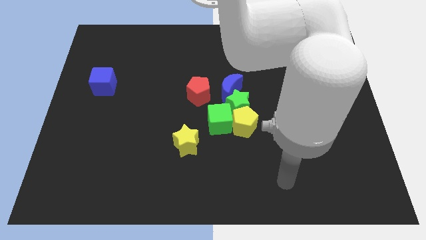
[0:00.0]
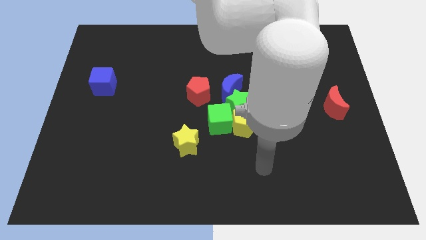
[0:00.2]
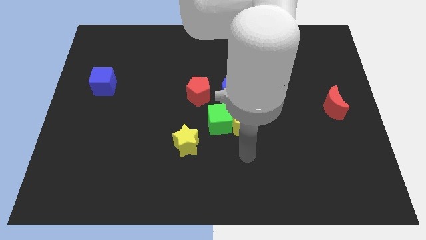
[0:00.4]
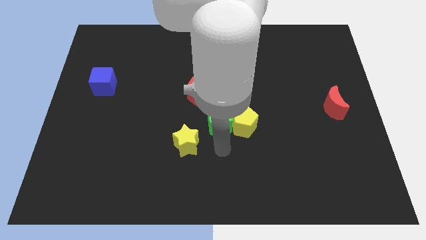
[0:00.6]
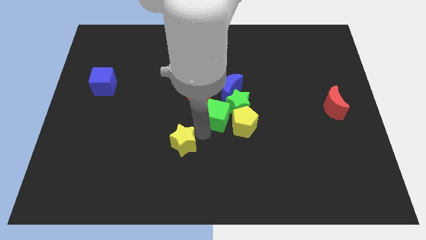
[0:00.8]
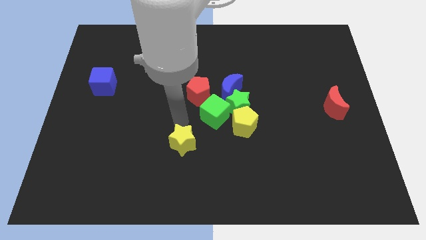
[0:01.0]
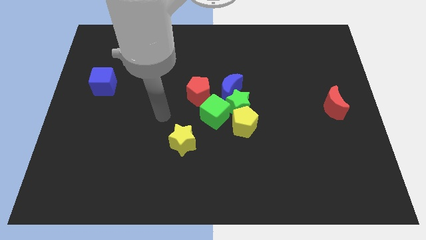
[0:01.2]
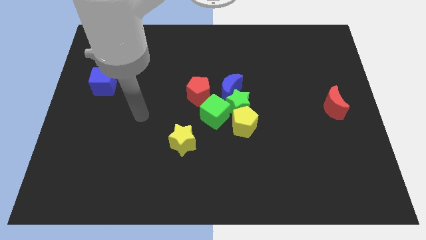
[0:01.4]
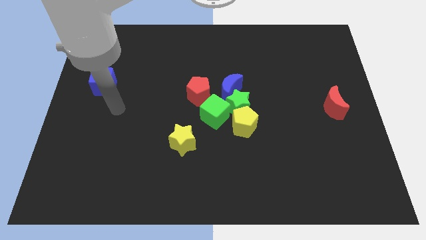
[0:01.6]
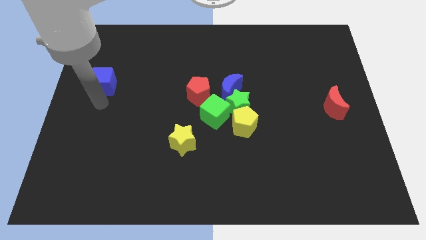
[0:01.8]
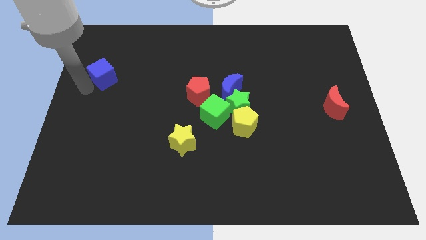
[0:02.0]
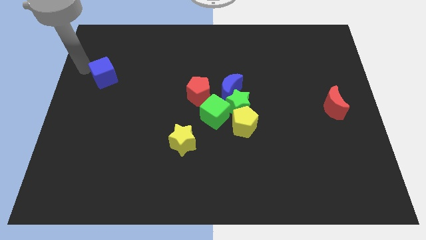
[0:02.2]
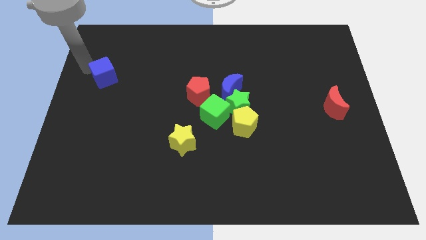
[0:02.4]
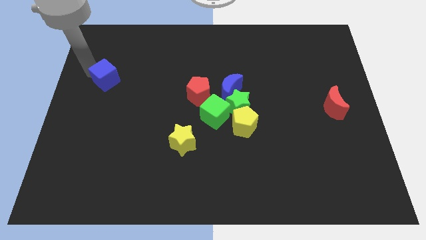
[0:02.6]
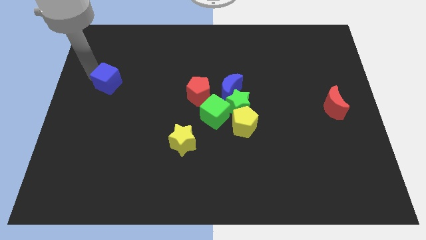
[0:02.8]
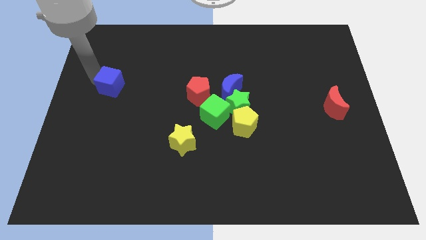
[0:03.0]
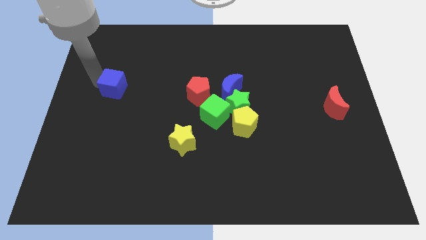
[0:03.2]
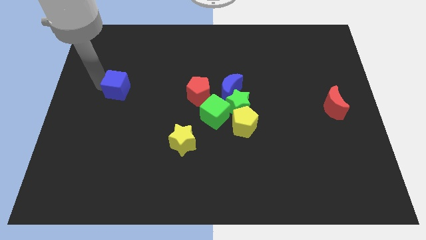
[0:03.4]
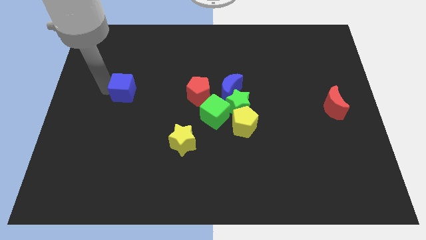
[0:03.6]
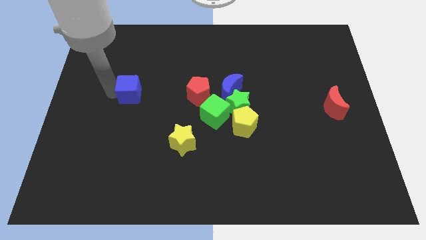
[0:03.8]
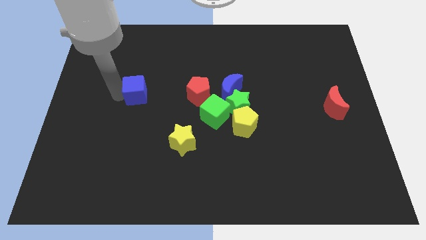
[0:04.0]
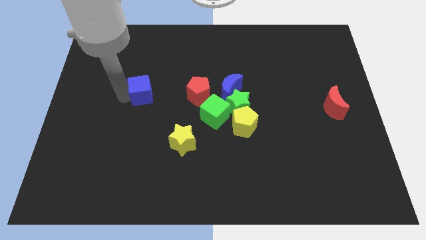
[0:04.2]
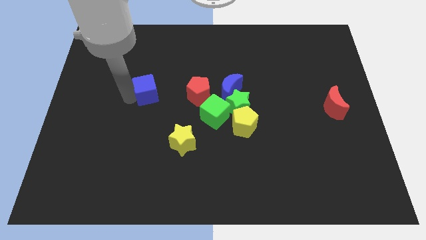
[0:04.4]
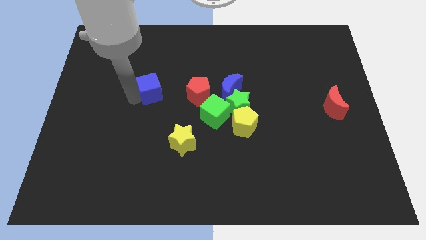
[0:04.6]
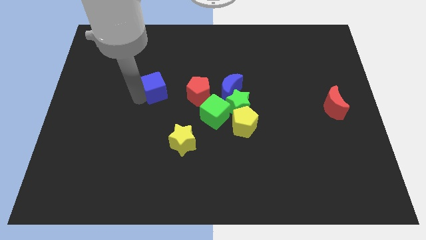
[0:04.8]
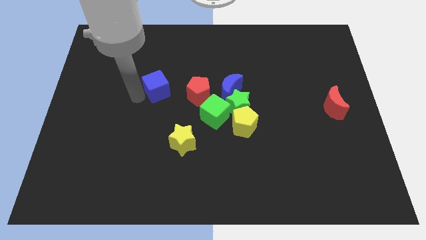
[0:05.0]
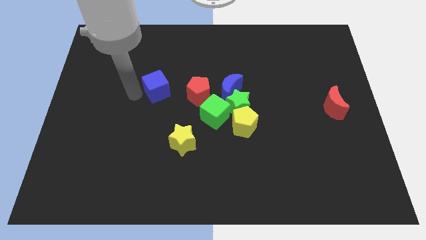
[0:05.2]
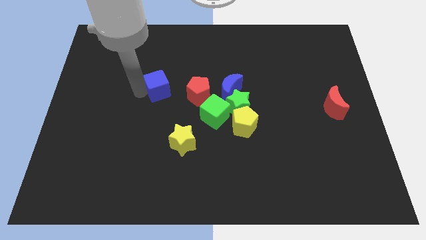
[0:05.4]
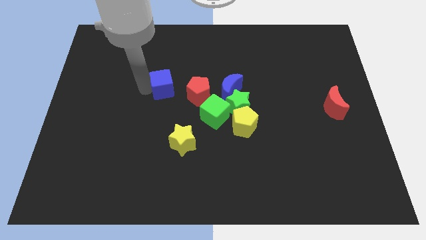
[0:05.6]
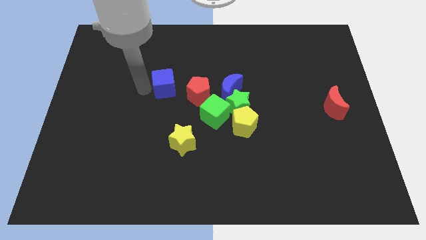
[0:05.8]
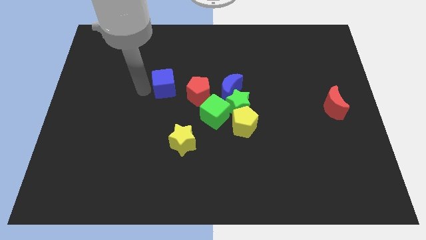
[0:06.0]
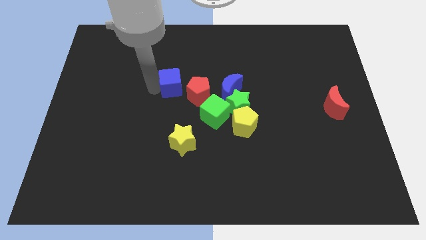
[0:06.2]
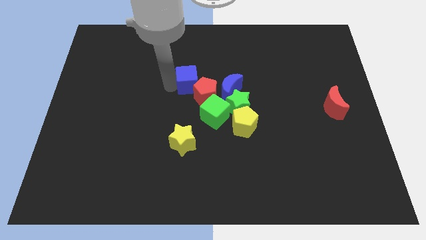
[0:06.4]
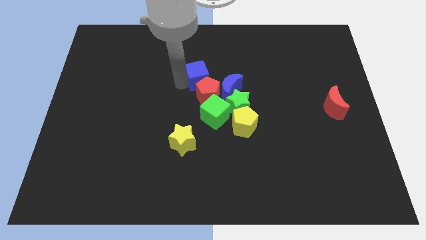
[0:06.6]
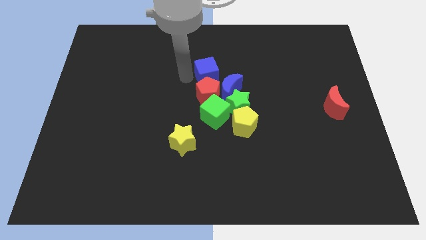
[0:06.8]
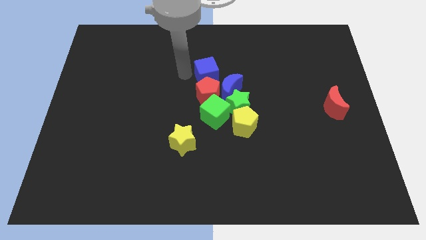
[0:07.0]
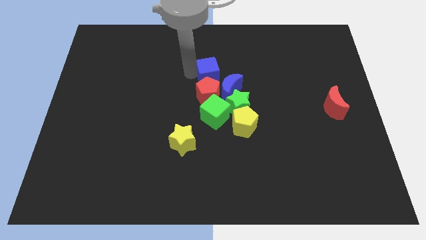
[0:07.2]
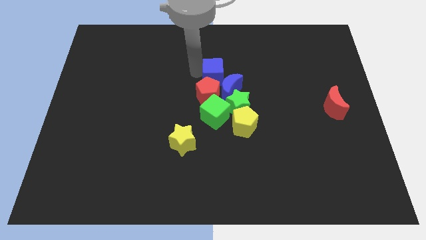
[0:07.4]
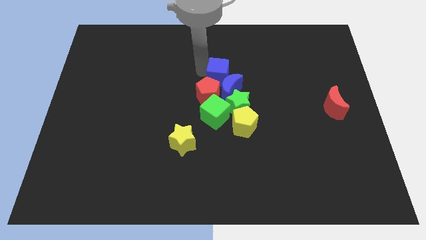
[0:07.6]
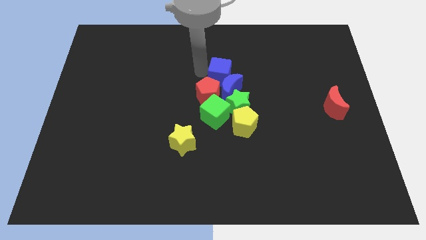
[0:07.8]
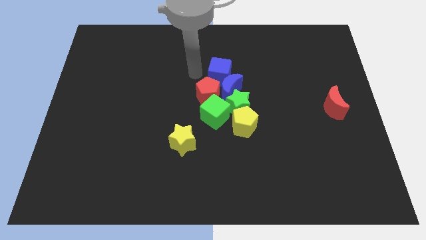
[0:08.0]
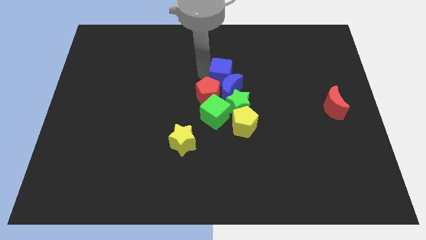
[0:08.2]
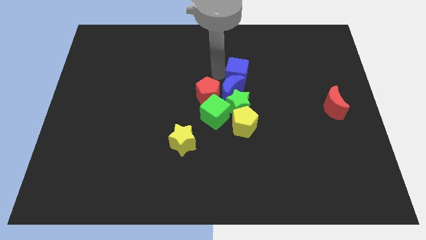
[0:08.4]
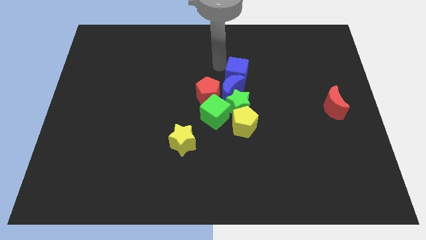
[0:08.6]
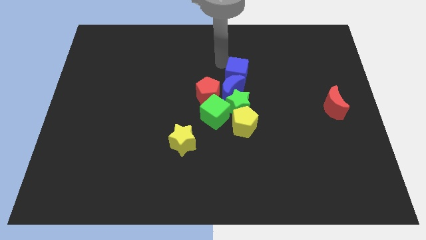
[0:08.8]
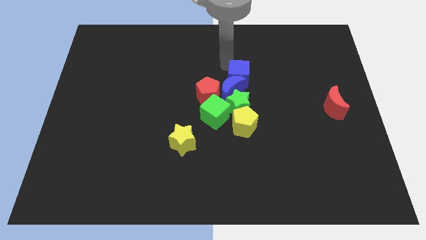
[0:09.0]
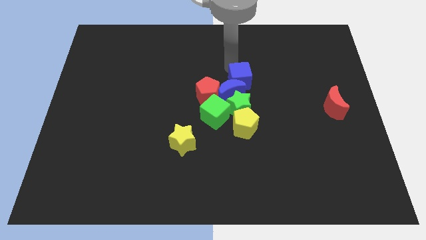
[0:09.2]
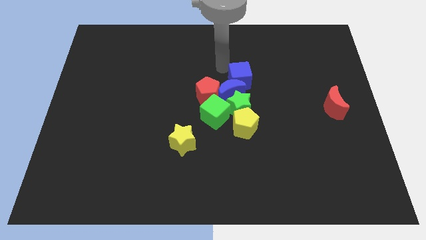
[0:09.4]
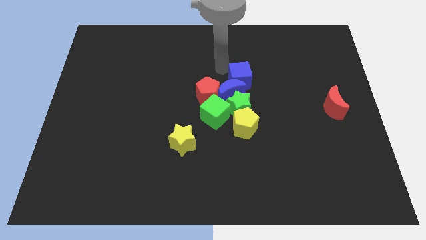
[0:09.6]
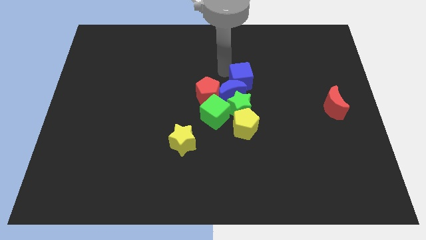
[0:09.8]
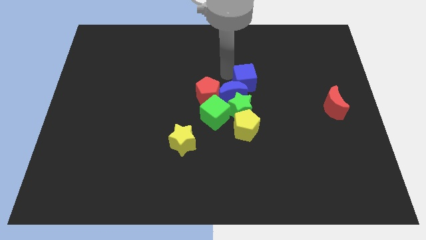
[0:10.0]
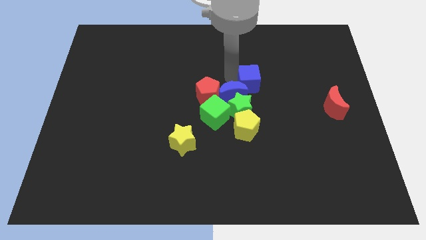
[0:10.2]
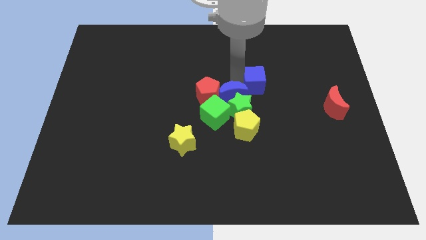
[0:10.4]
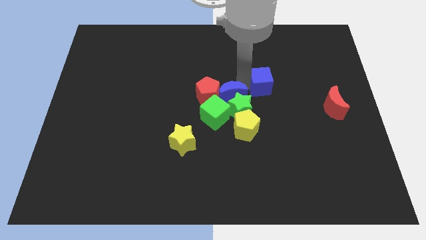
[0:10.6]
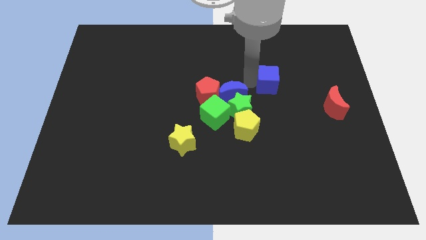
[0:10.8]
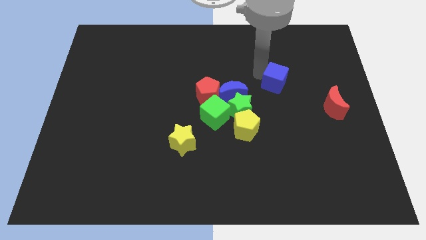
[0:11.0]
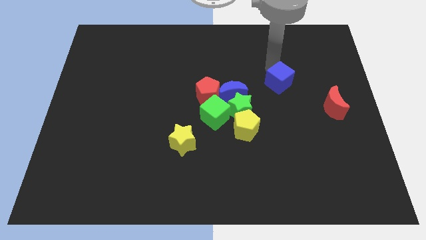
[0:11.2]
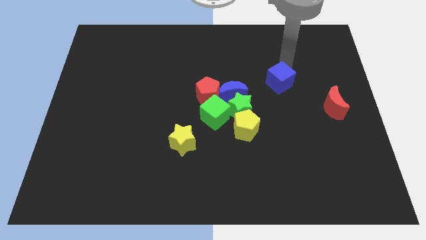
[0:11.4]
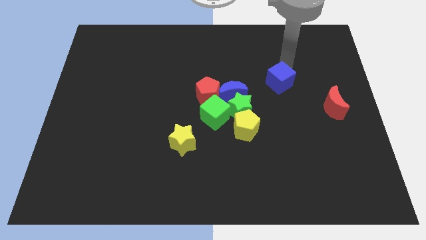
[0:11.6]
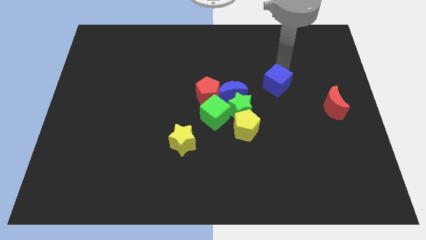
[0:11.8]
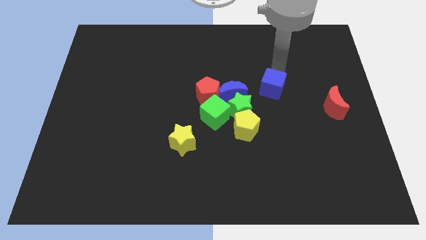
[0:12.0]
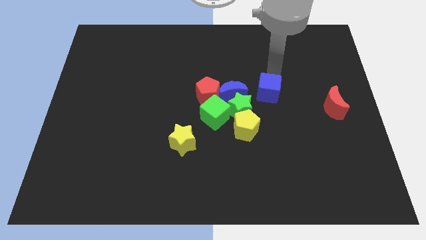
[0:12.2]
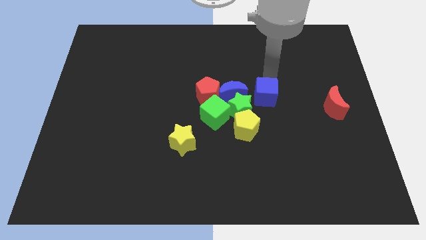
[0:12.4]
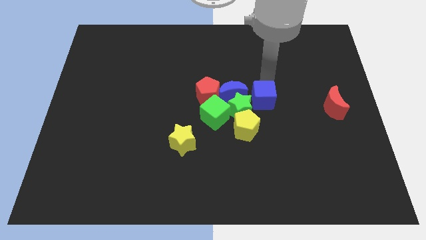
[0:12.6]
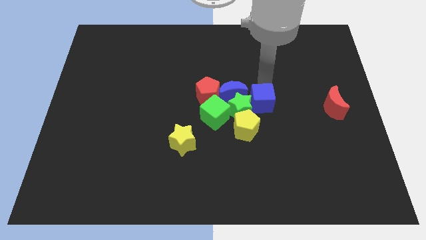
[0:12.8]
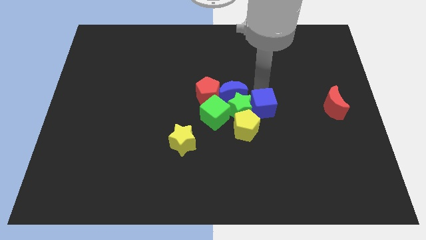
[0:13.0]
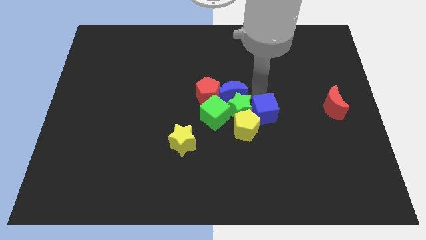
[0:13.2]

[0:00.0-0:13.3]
move the blue cube to the right side of the yellow pentagon
